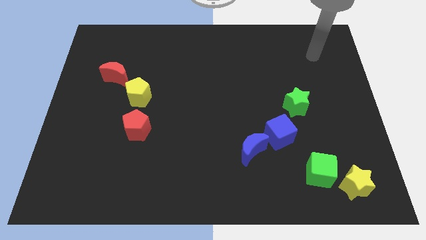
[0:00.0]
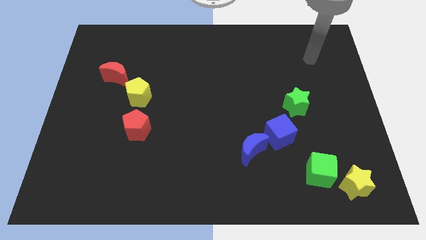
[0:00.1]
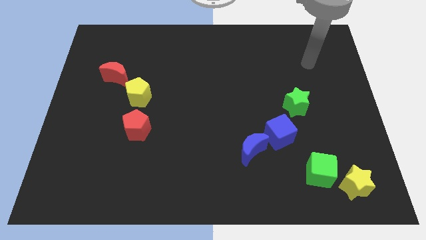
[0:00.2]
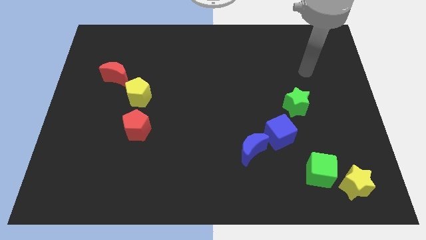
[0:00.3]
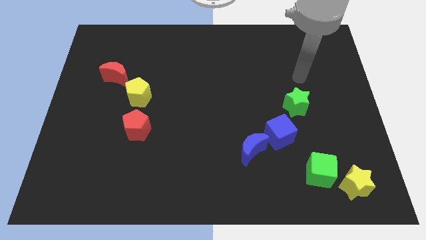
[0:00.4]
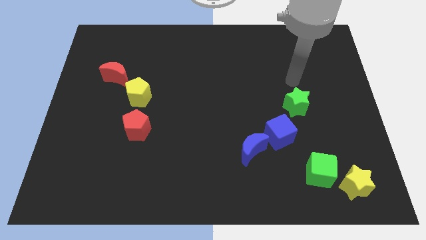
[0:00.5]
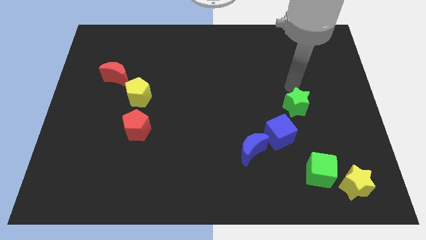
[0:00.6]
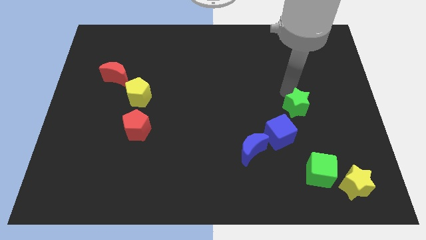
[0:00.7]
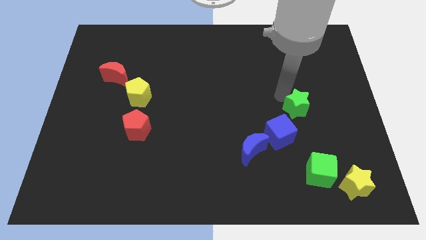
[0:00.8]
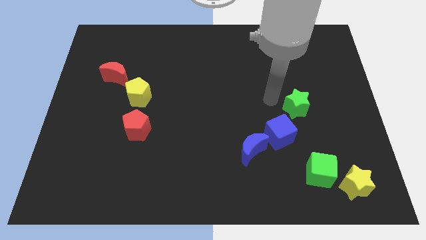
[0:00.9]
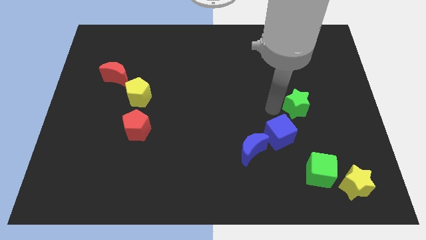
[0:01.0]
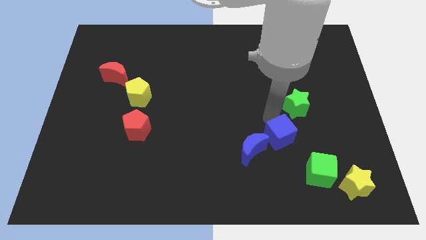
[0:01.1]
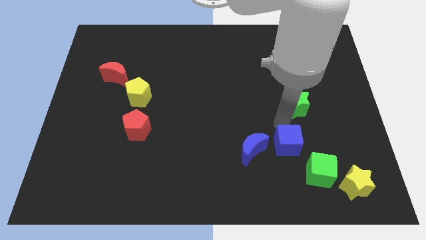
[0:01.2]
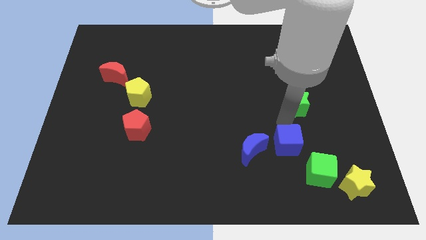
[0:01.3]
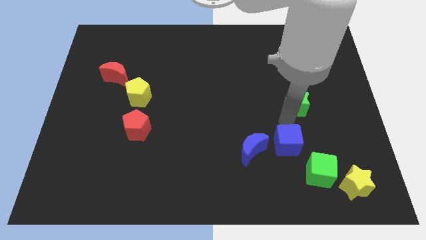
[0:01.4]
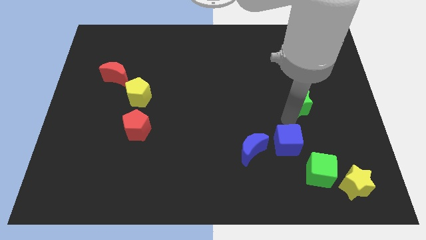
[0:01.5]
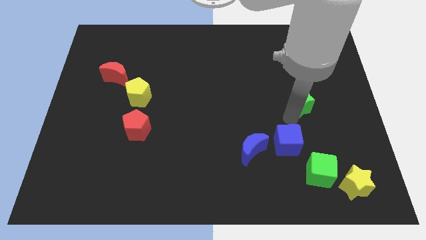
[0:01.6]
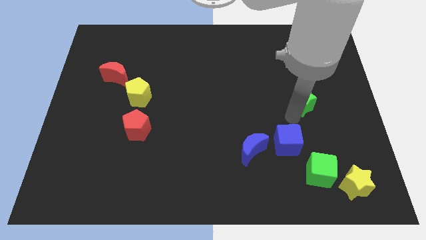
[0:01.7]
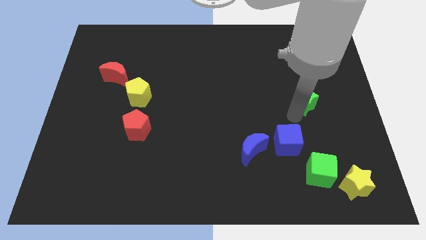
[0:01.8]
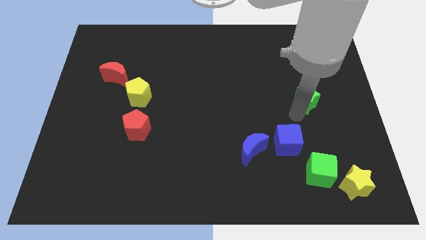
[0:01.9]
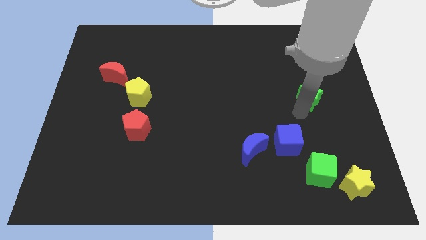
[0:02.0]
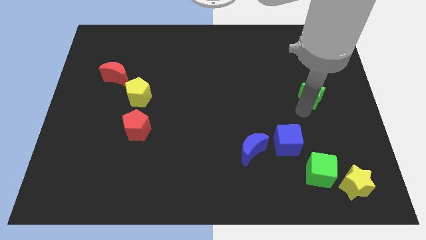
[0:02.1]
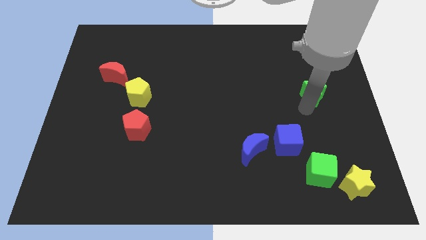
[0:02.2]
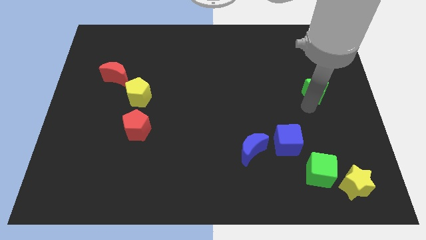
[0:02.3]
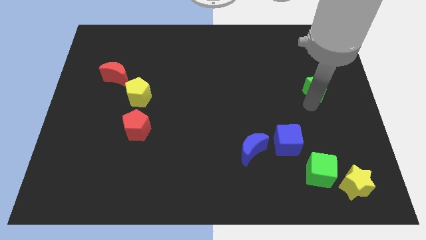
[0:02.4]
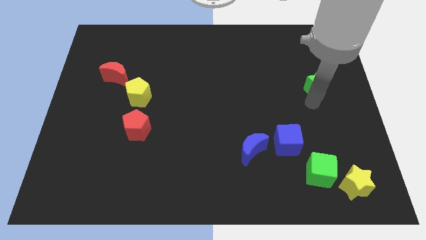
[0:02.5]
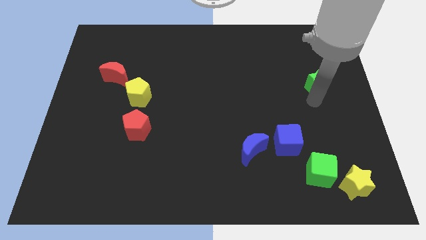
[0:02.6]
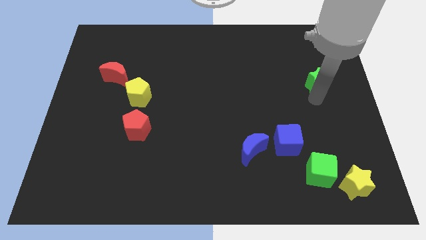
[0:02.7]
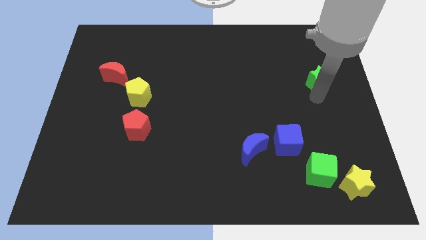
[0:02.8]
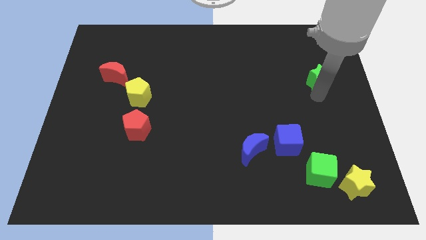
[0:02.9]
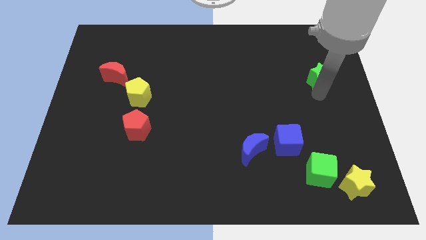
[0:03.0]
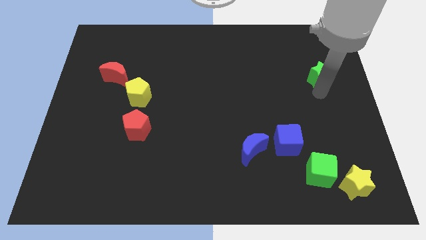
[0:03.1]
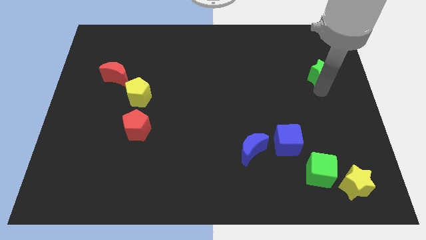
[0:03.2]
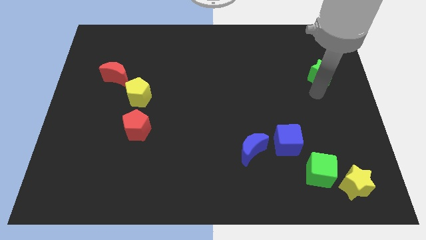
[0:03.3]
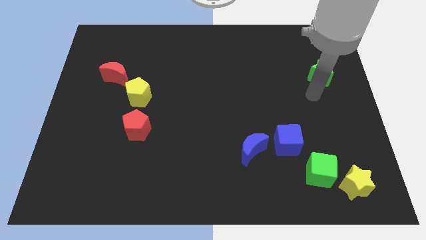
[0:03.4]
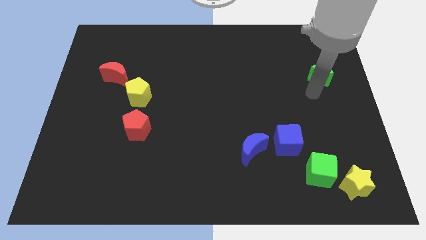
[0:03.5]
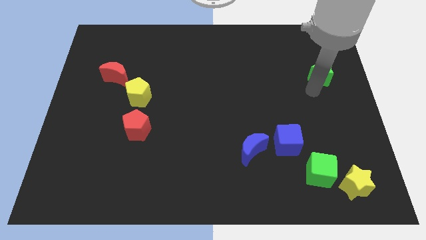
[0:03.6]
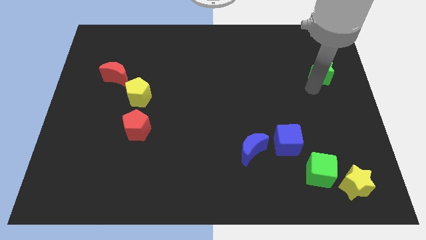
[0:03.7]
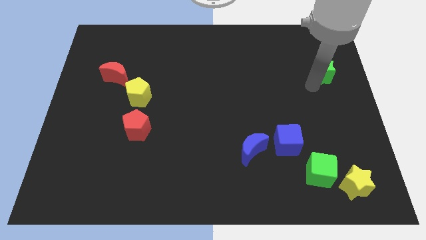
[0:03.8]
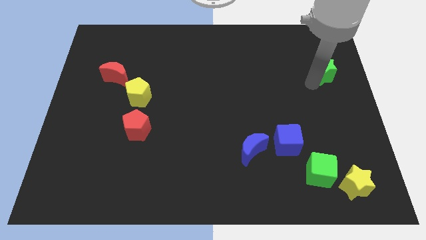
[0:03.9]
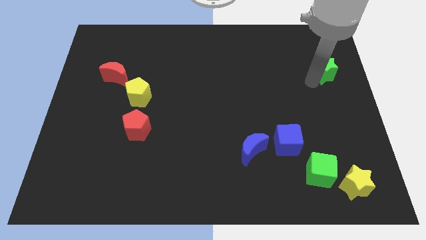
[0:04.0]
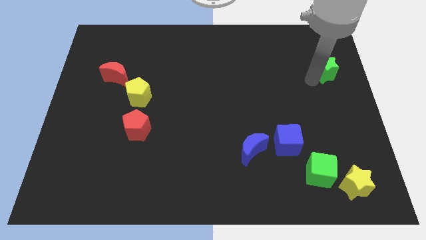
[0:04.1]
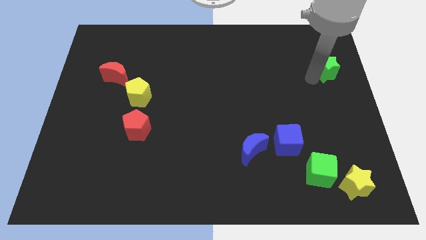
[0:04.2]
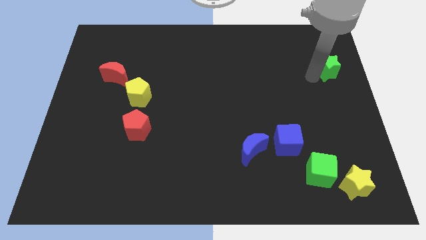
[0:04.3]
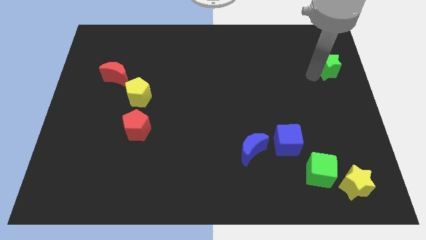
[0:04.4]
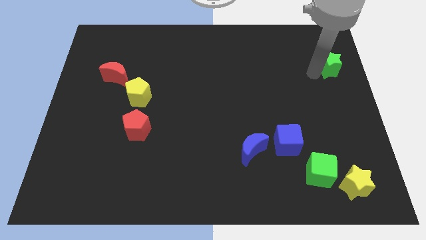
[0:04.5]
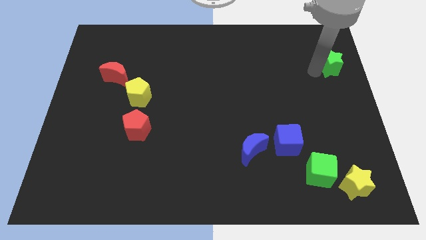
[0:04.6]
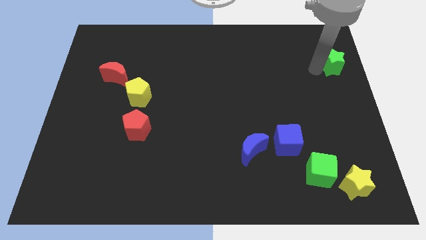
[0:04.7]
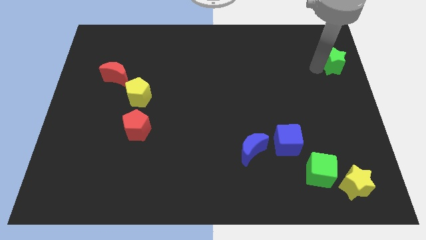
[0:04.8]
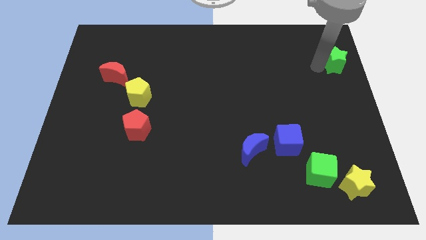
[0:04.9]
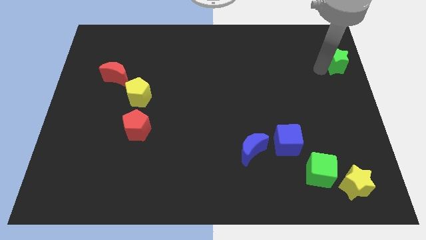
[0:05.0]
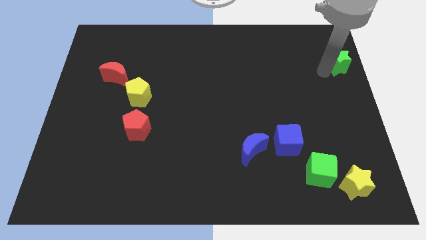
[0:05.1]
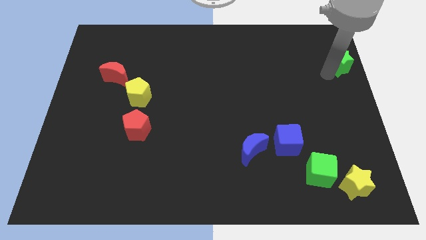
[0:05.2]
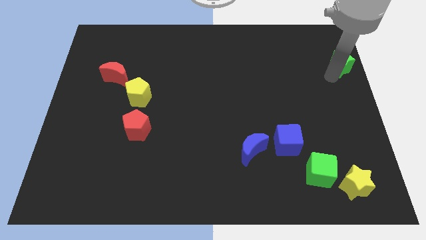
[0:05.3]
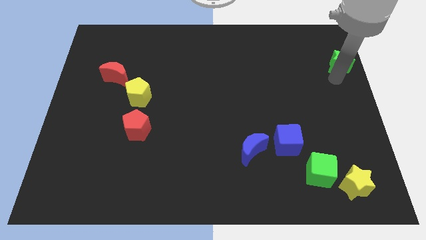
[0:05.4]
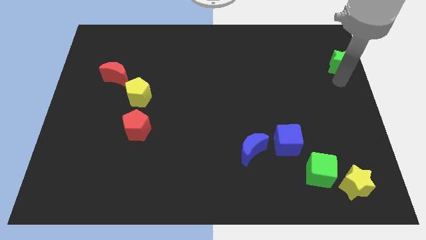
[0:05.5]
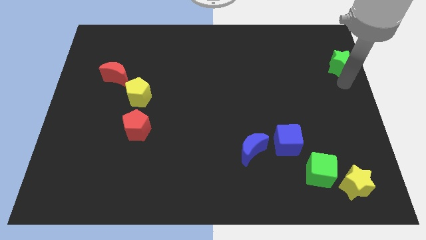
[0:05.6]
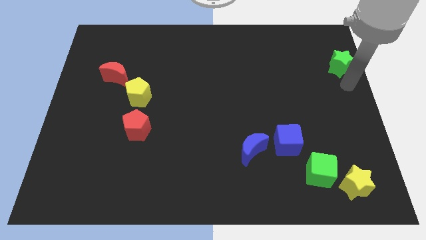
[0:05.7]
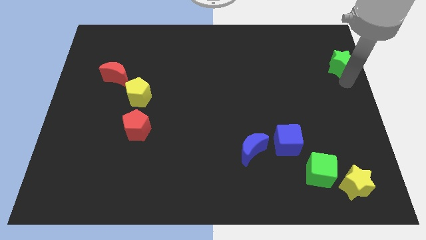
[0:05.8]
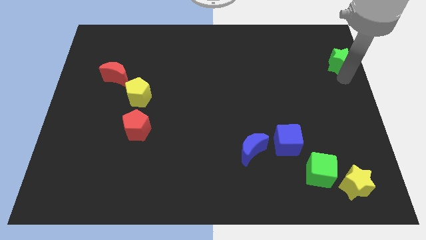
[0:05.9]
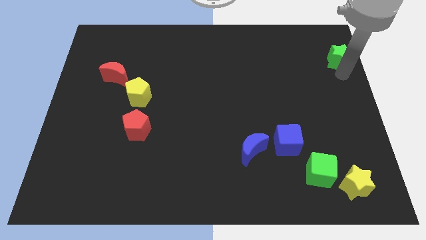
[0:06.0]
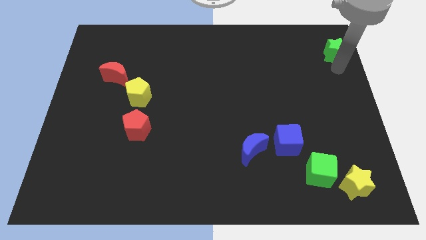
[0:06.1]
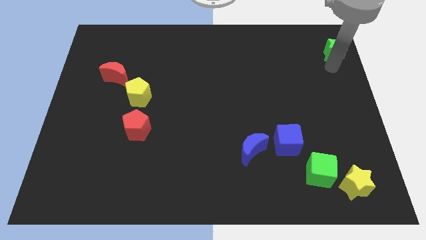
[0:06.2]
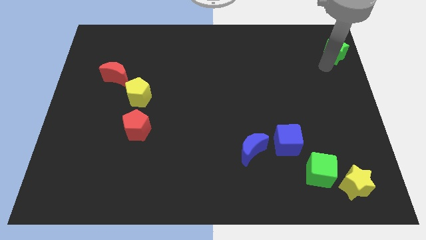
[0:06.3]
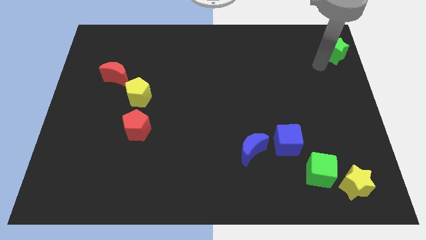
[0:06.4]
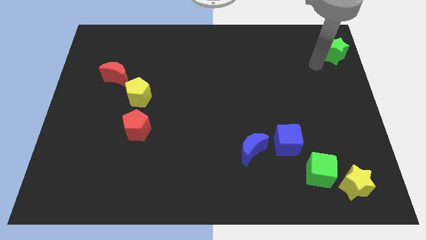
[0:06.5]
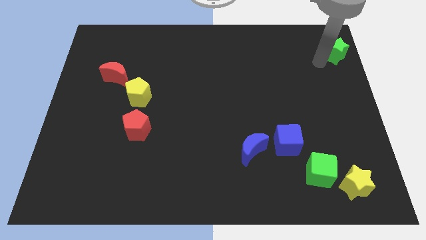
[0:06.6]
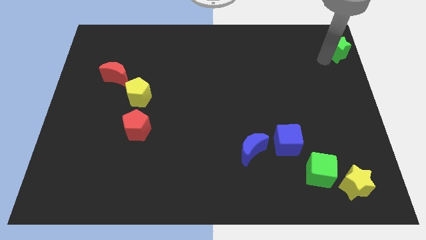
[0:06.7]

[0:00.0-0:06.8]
move the green star to the top right
